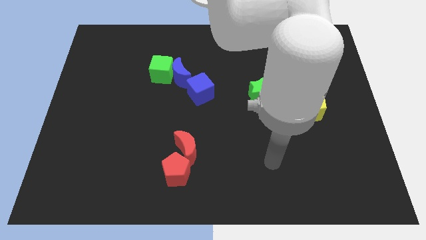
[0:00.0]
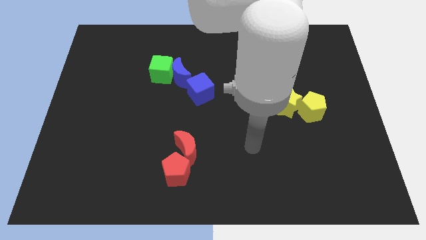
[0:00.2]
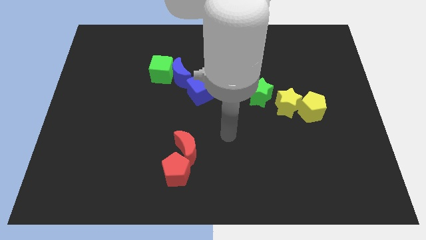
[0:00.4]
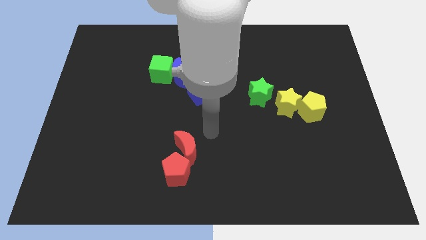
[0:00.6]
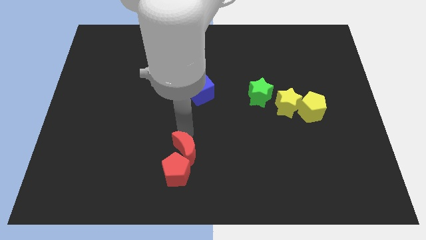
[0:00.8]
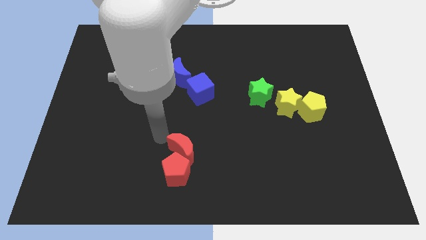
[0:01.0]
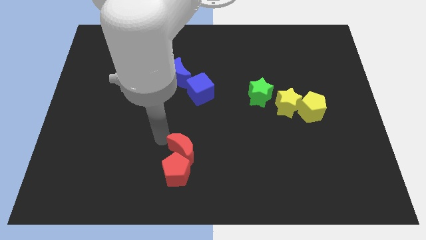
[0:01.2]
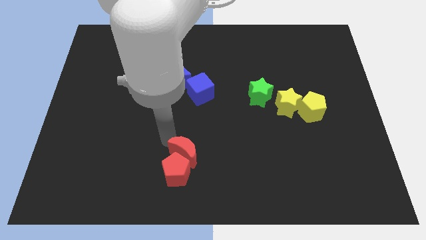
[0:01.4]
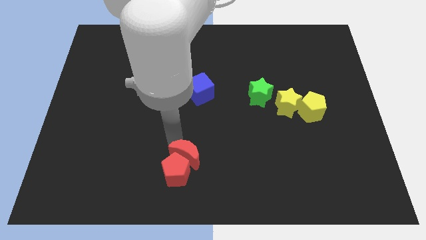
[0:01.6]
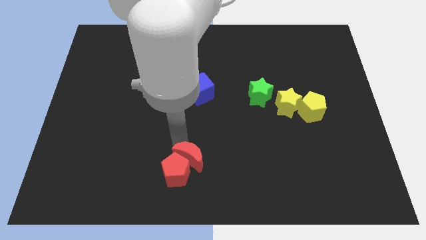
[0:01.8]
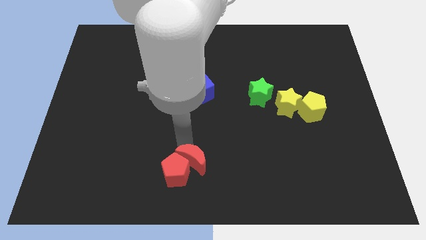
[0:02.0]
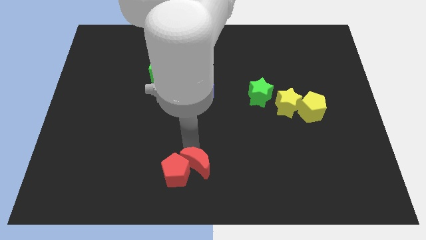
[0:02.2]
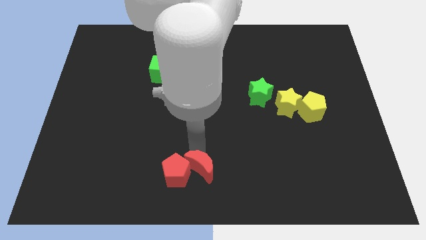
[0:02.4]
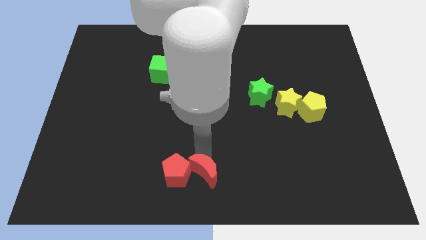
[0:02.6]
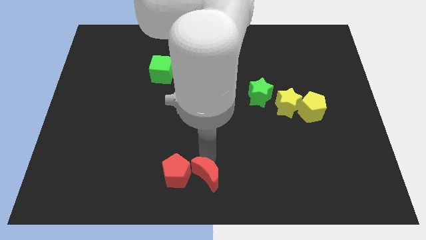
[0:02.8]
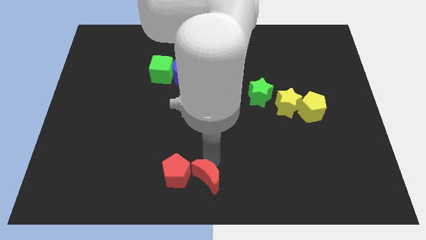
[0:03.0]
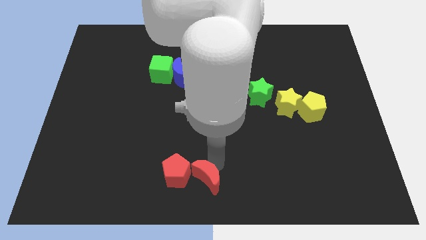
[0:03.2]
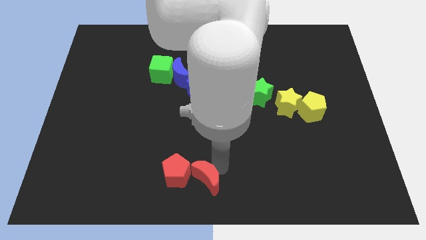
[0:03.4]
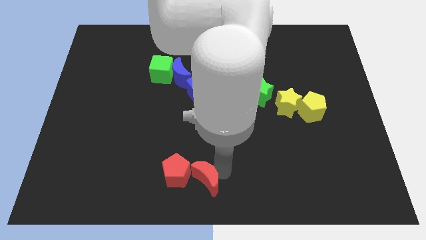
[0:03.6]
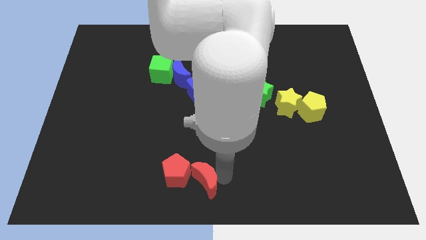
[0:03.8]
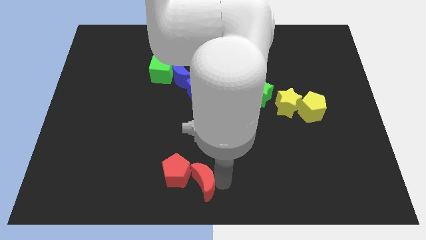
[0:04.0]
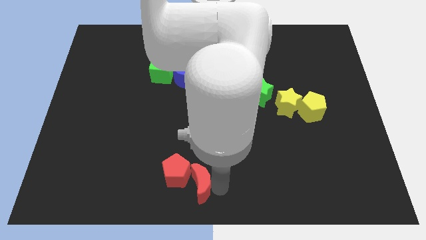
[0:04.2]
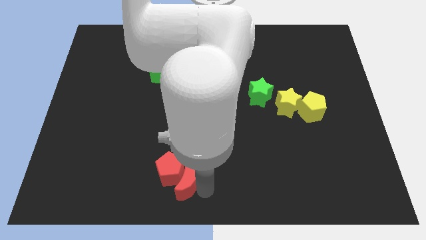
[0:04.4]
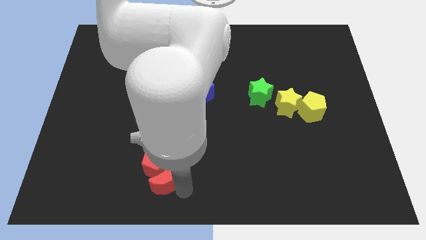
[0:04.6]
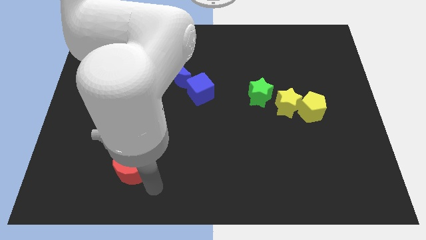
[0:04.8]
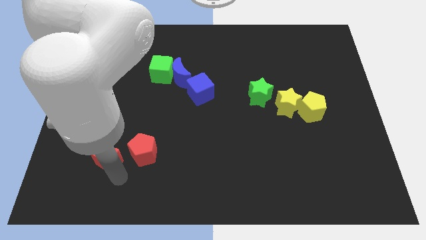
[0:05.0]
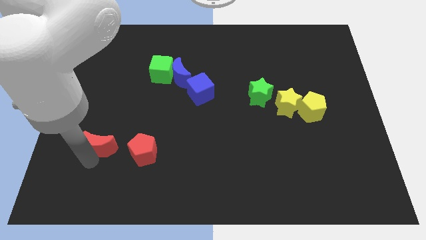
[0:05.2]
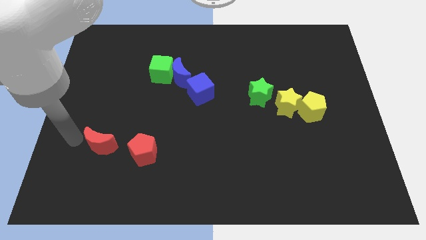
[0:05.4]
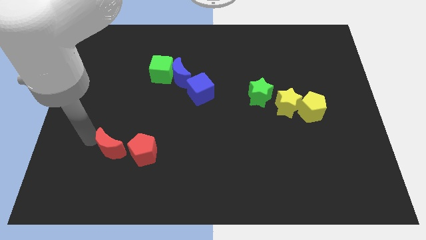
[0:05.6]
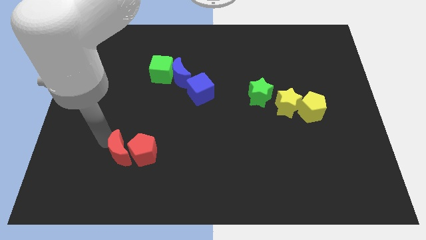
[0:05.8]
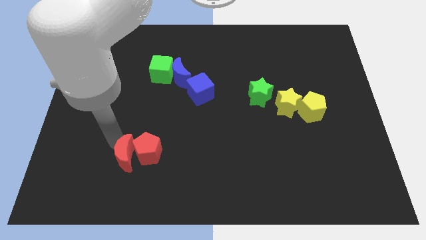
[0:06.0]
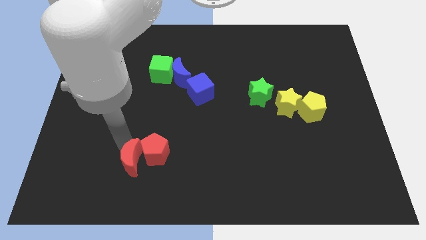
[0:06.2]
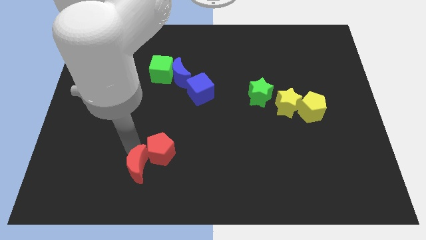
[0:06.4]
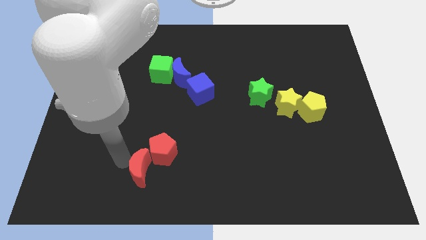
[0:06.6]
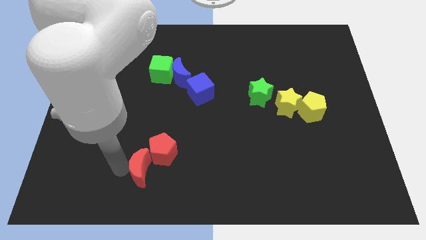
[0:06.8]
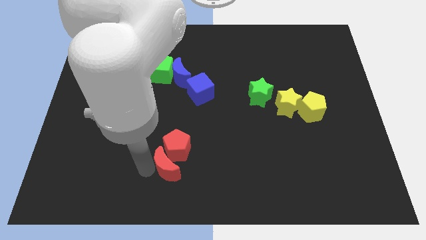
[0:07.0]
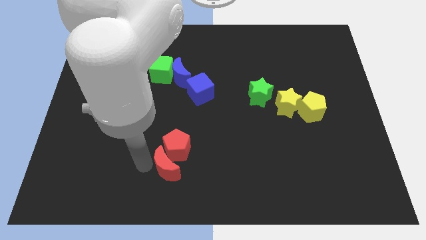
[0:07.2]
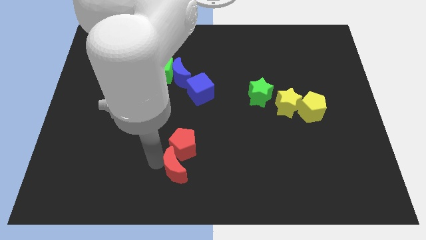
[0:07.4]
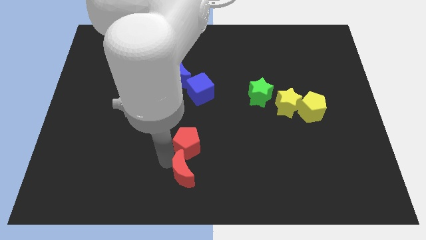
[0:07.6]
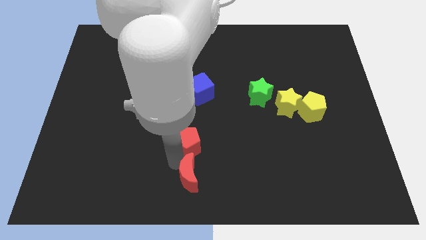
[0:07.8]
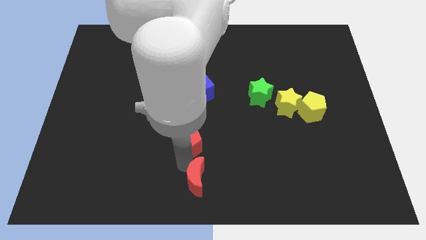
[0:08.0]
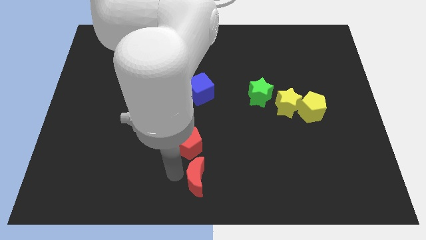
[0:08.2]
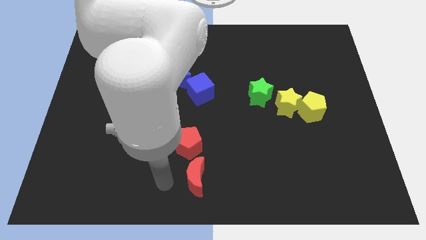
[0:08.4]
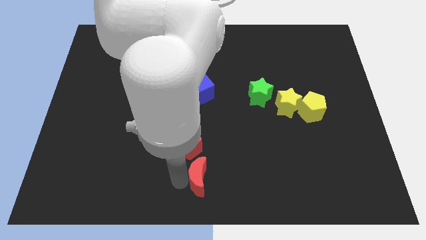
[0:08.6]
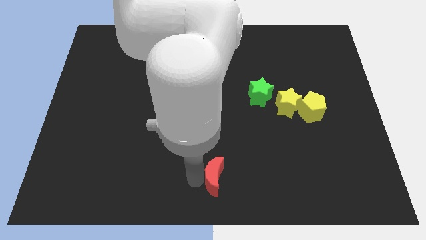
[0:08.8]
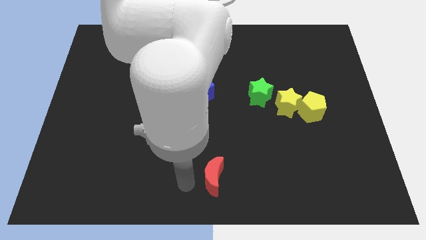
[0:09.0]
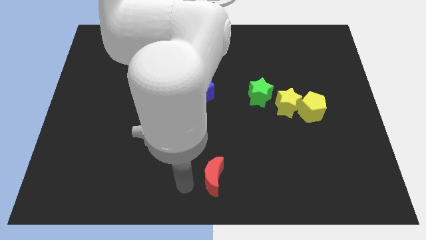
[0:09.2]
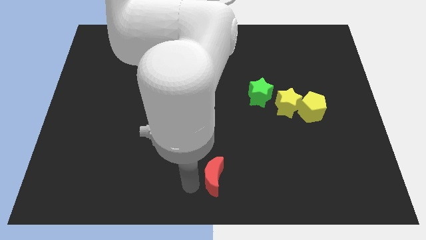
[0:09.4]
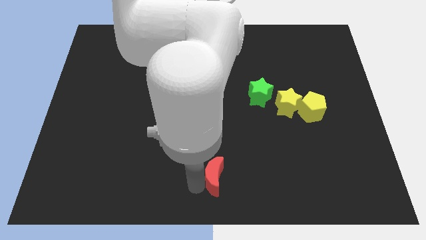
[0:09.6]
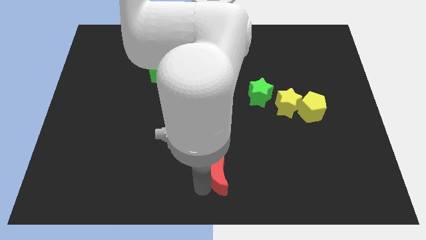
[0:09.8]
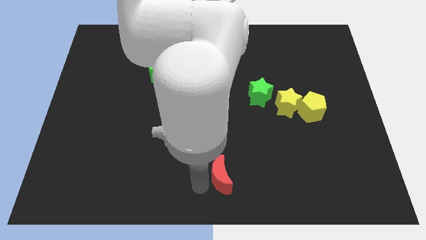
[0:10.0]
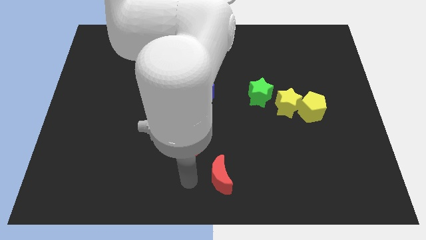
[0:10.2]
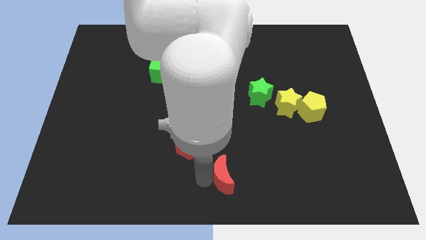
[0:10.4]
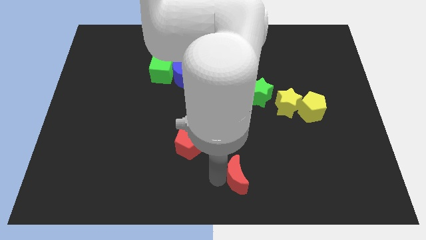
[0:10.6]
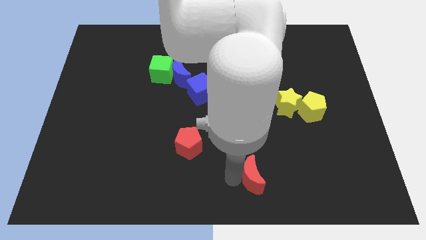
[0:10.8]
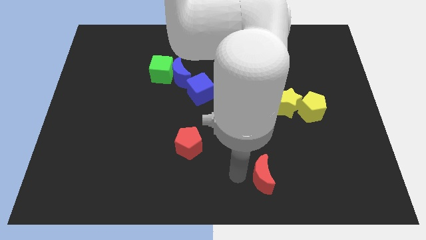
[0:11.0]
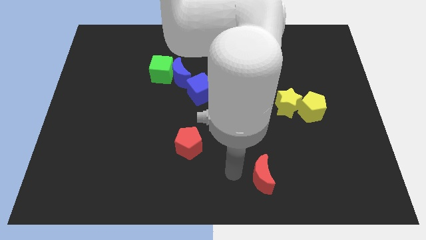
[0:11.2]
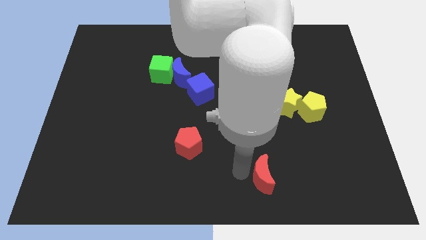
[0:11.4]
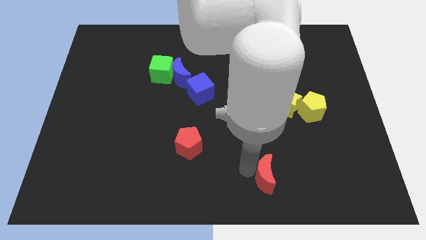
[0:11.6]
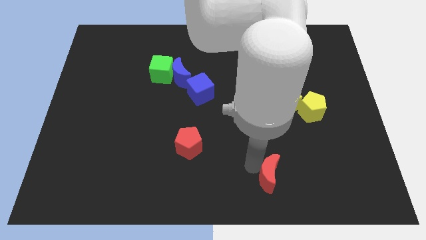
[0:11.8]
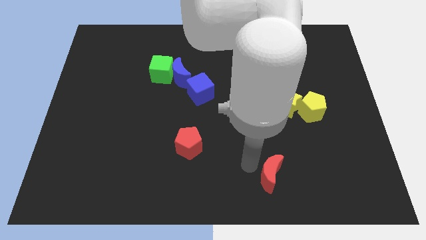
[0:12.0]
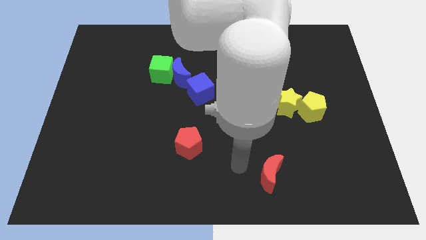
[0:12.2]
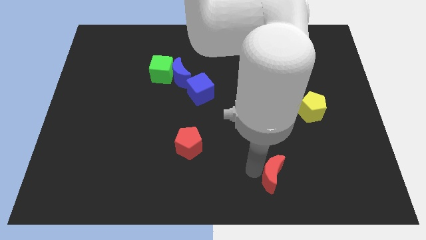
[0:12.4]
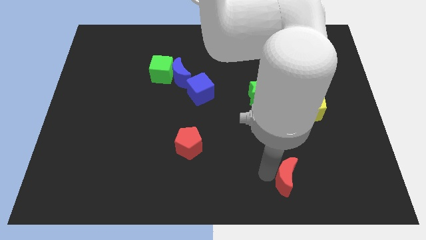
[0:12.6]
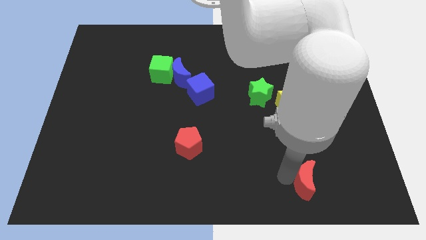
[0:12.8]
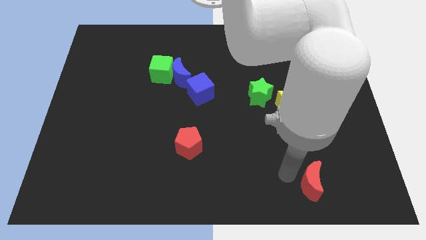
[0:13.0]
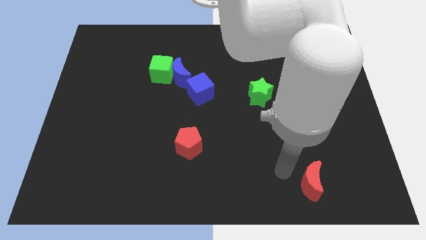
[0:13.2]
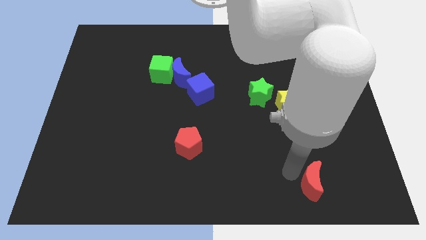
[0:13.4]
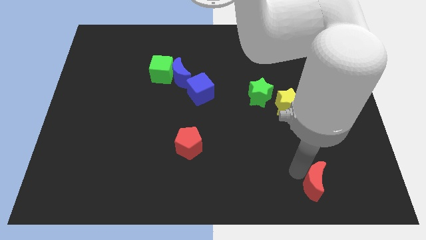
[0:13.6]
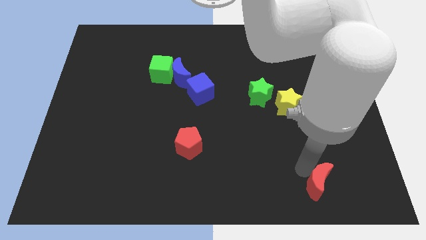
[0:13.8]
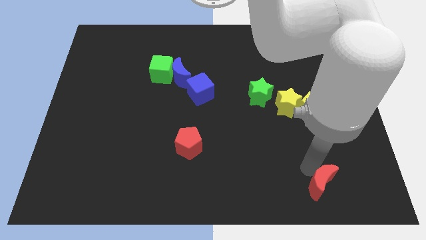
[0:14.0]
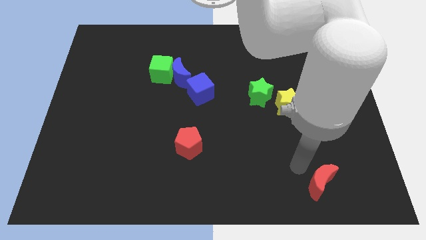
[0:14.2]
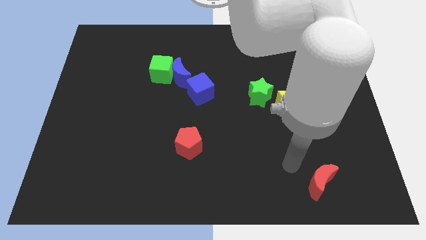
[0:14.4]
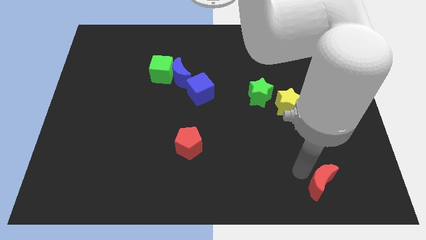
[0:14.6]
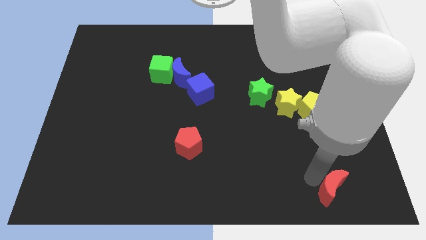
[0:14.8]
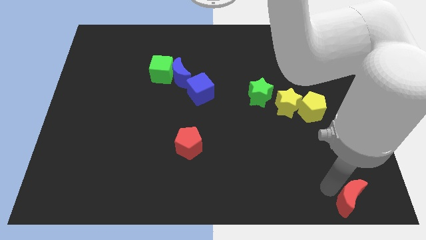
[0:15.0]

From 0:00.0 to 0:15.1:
move the red moon to the lower right corner
